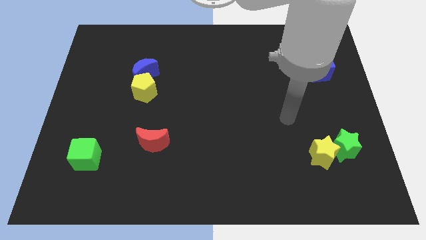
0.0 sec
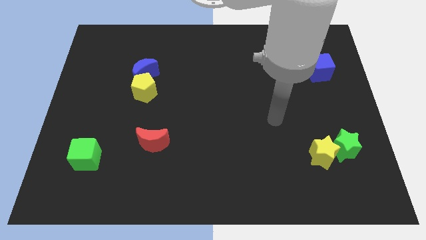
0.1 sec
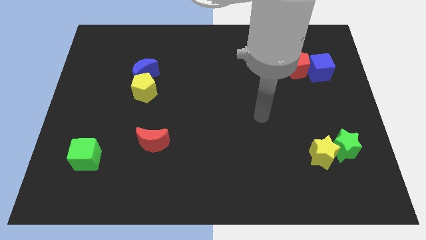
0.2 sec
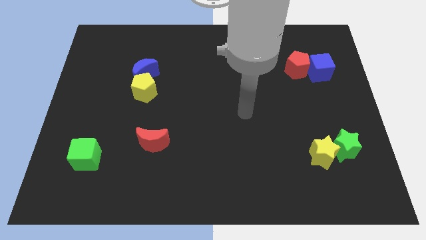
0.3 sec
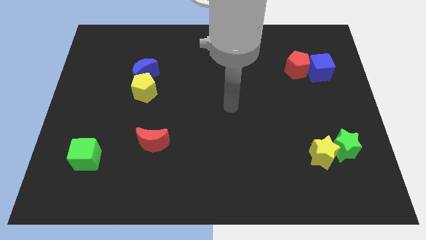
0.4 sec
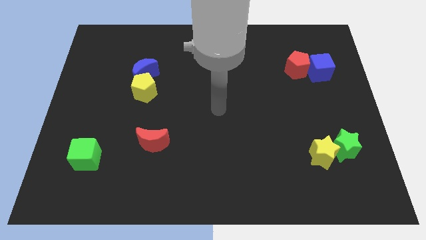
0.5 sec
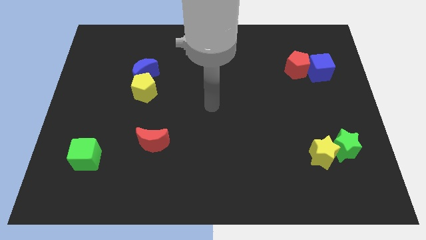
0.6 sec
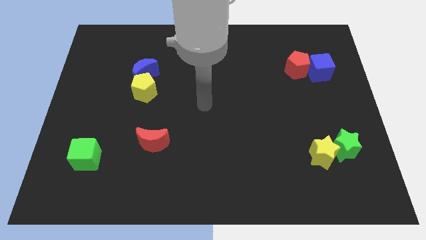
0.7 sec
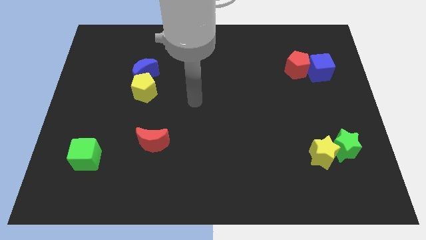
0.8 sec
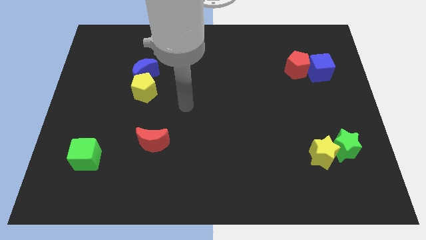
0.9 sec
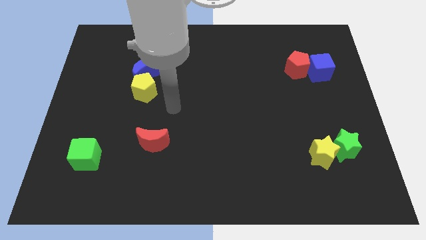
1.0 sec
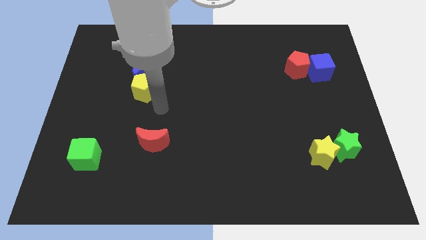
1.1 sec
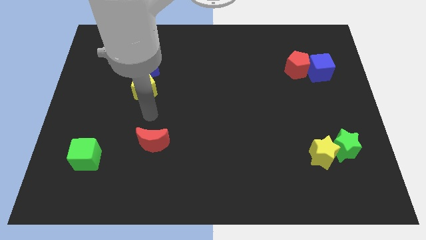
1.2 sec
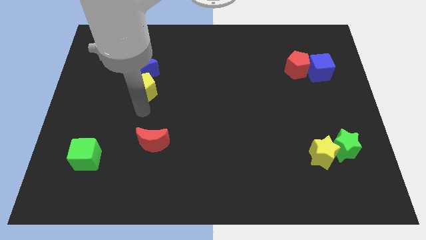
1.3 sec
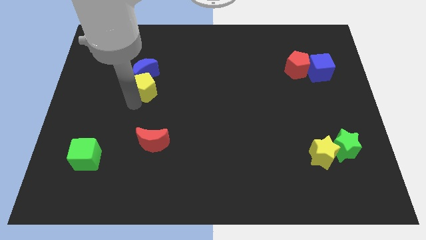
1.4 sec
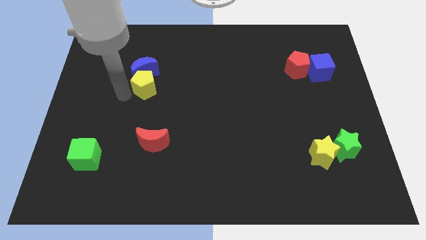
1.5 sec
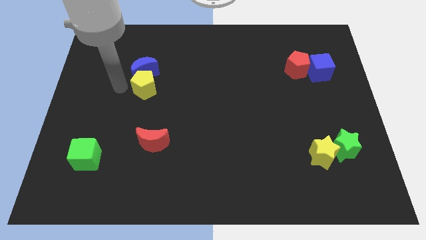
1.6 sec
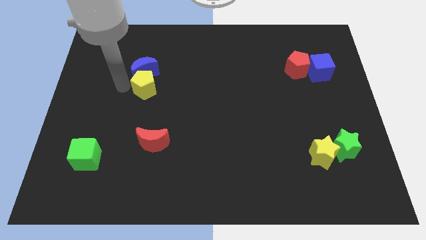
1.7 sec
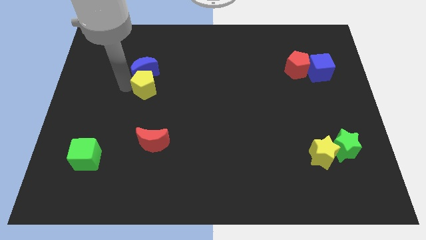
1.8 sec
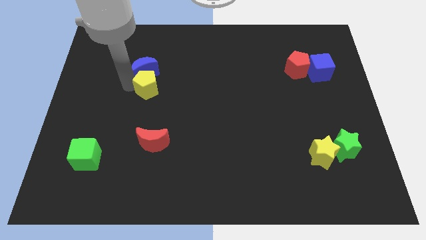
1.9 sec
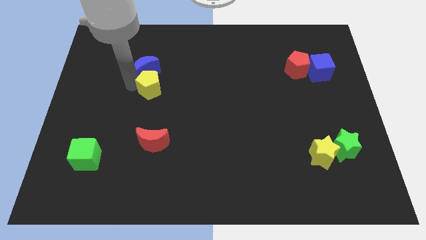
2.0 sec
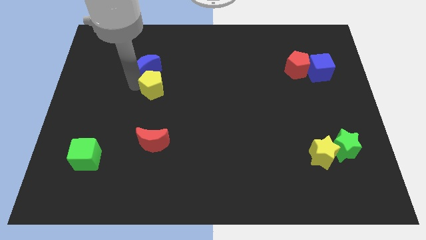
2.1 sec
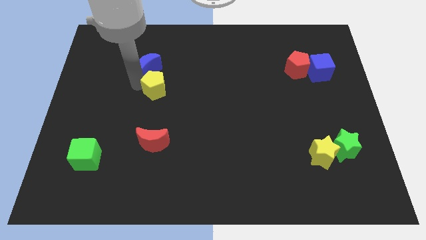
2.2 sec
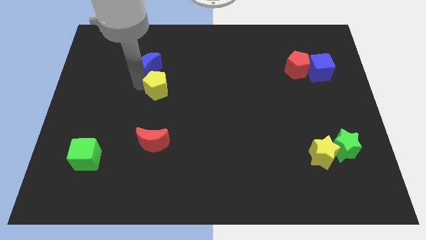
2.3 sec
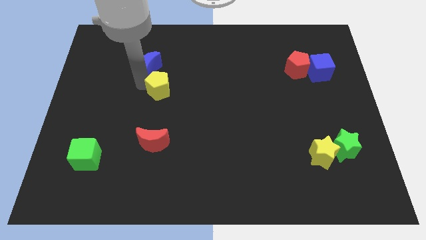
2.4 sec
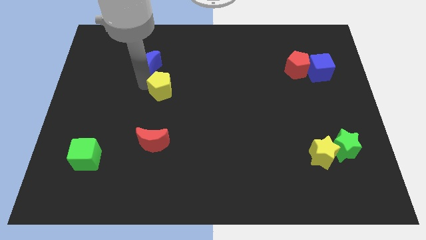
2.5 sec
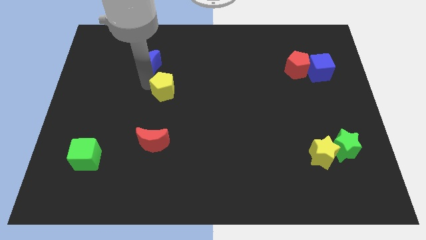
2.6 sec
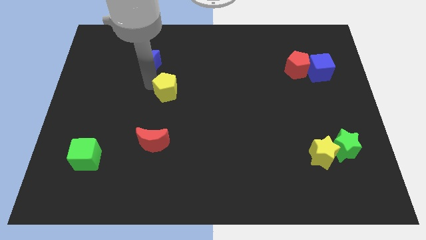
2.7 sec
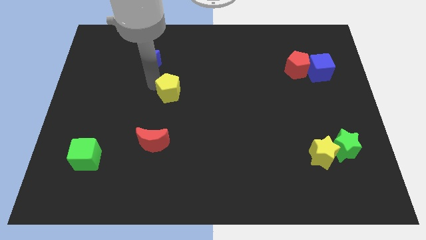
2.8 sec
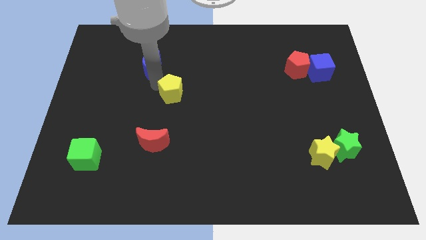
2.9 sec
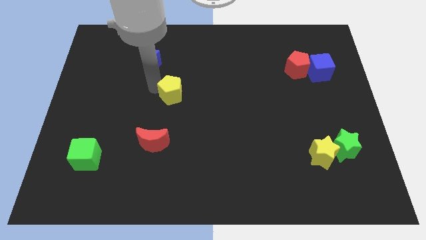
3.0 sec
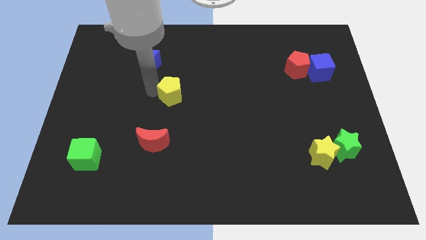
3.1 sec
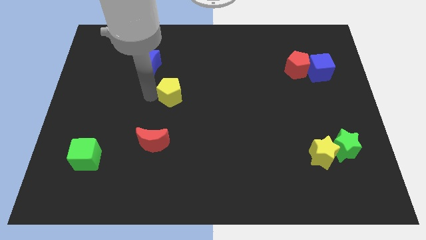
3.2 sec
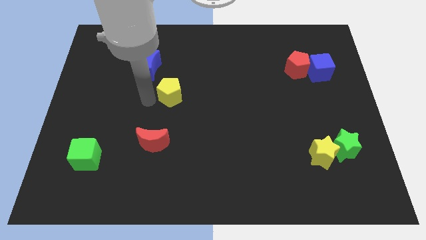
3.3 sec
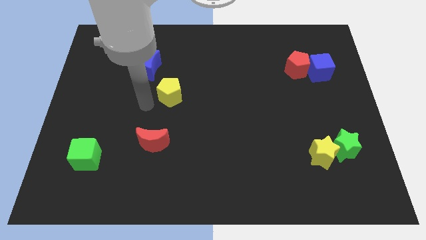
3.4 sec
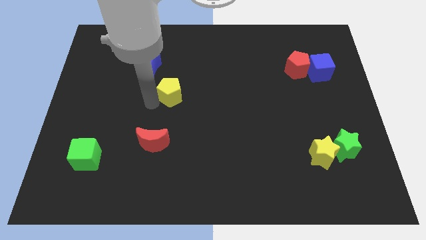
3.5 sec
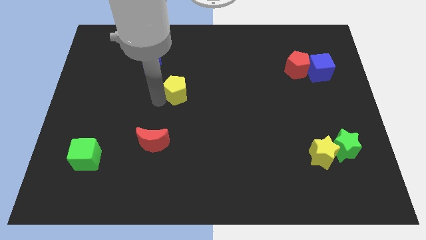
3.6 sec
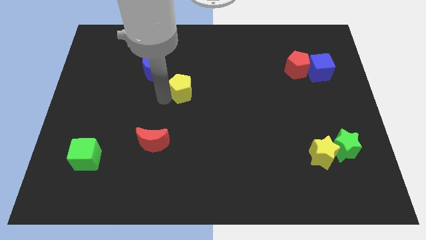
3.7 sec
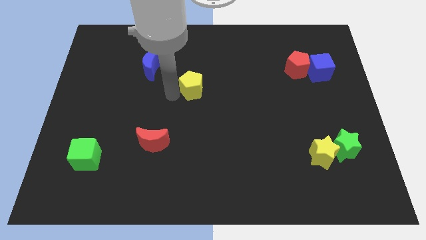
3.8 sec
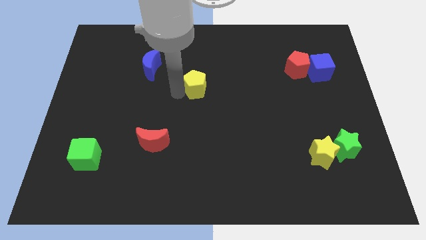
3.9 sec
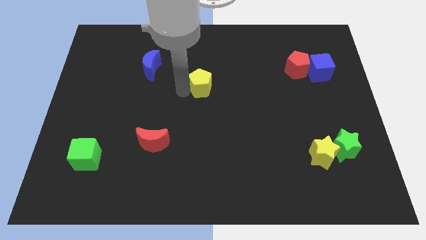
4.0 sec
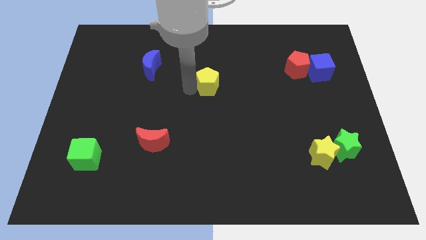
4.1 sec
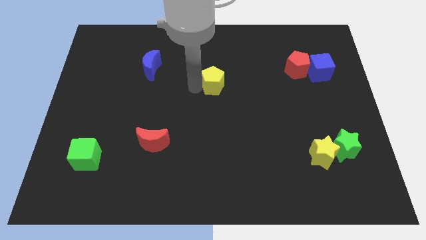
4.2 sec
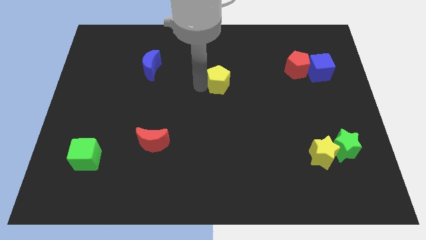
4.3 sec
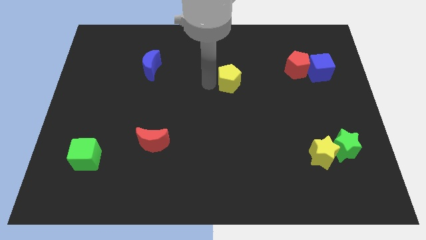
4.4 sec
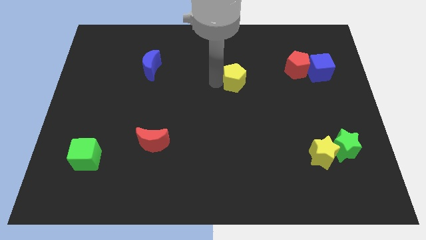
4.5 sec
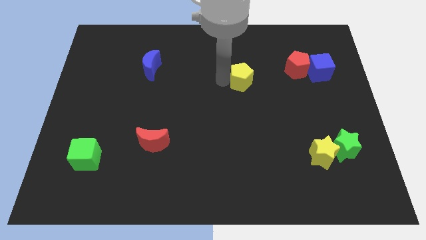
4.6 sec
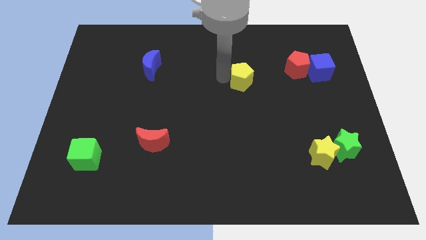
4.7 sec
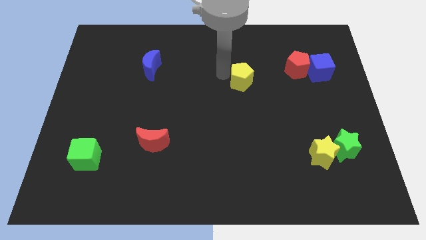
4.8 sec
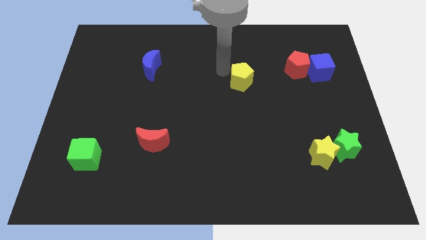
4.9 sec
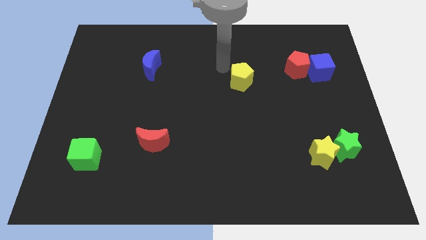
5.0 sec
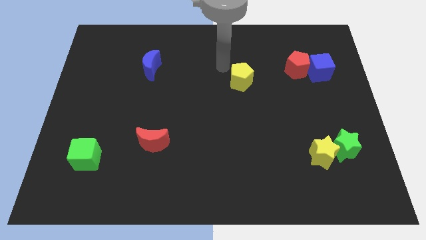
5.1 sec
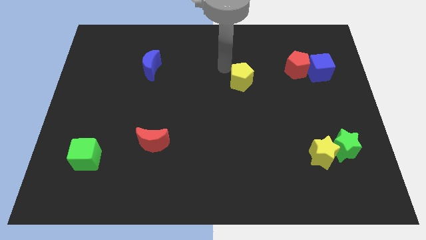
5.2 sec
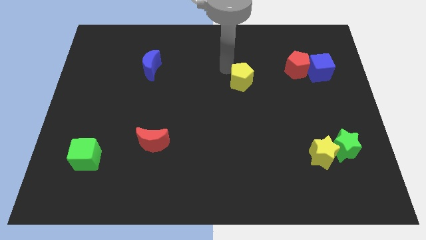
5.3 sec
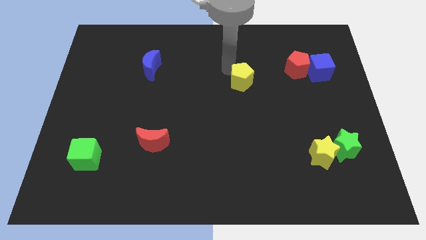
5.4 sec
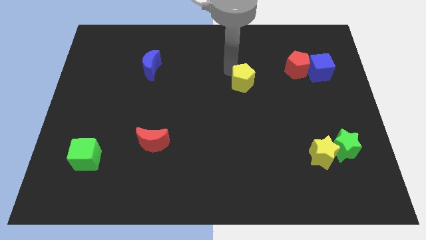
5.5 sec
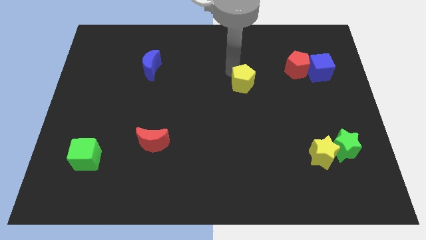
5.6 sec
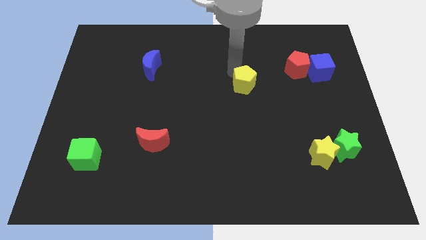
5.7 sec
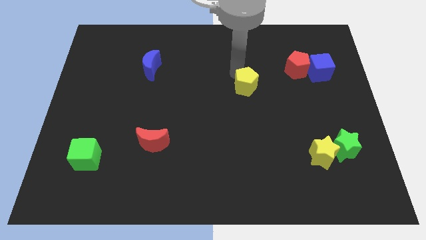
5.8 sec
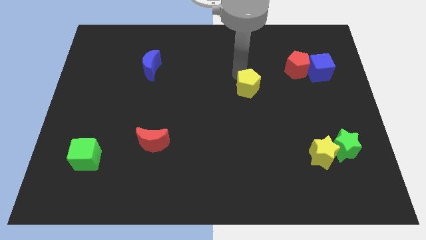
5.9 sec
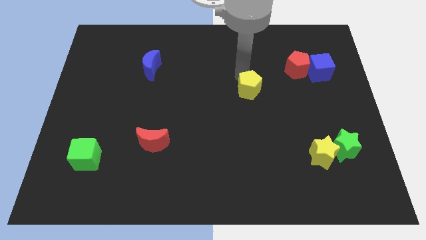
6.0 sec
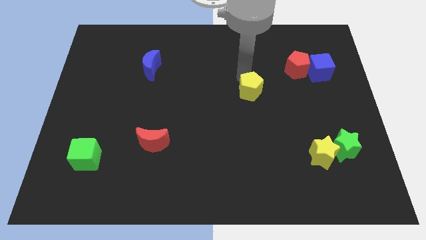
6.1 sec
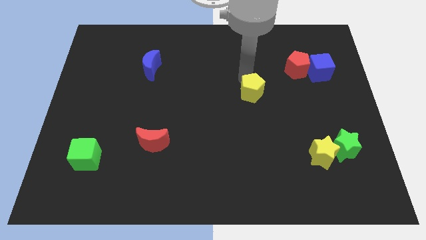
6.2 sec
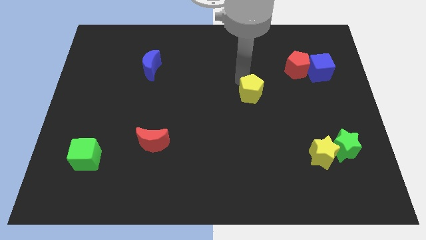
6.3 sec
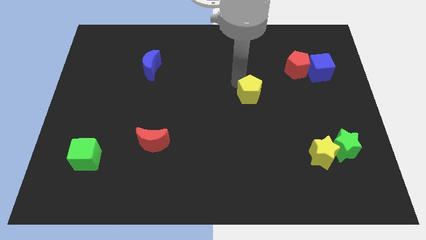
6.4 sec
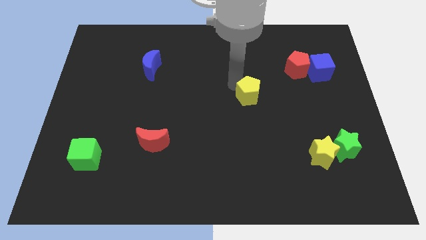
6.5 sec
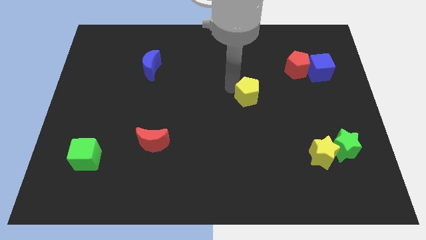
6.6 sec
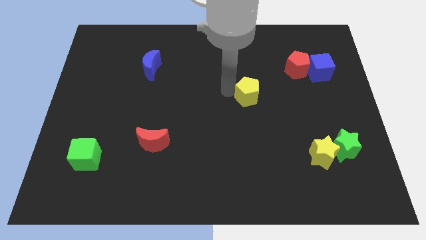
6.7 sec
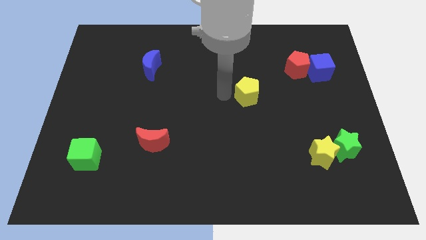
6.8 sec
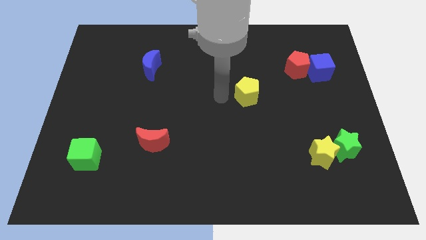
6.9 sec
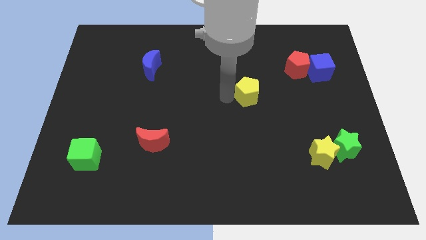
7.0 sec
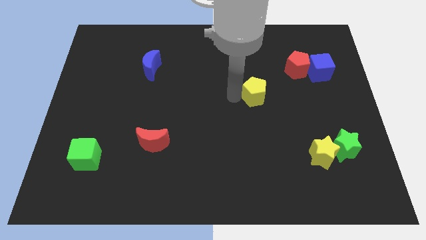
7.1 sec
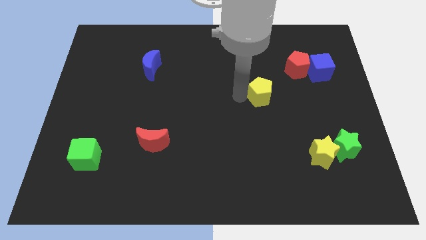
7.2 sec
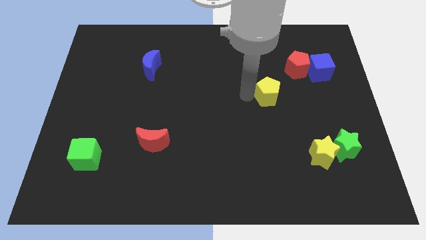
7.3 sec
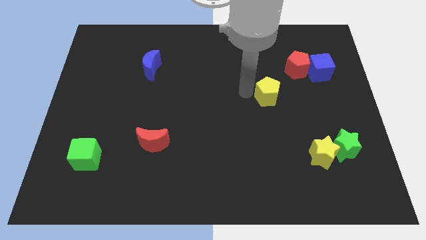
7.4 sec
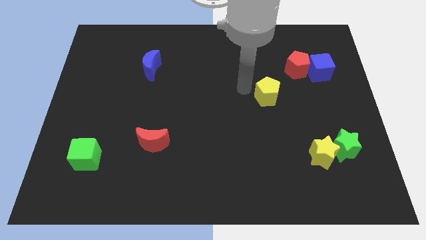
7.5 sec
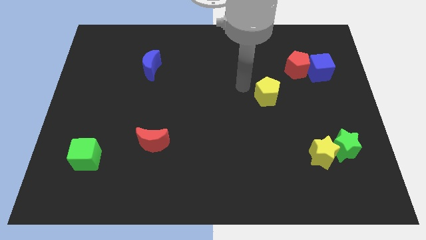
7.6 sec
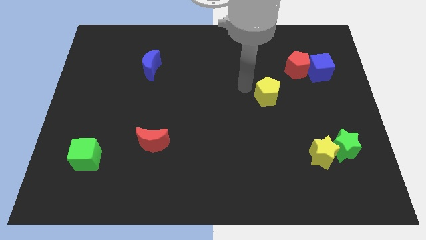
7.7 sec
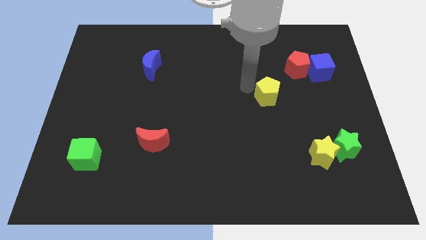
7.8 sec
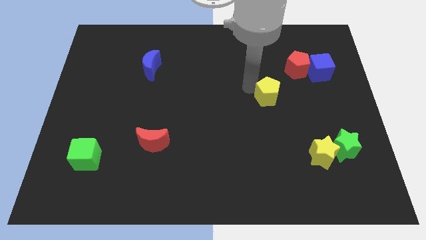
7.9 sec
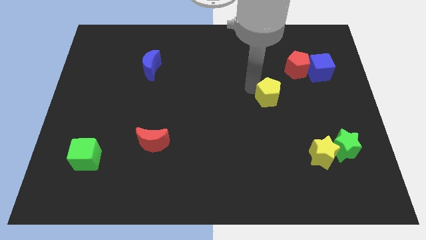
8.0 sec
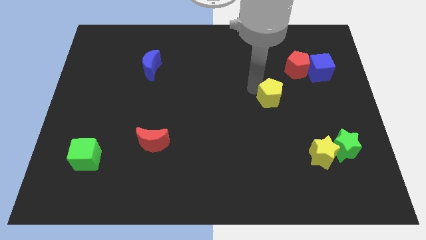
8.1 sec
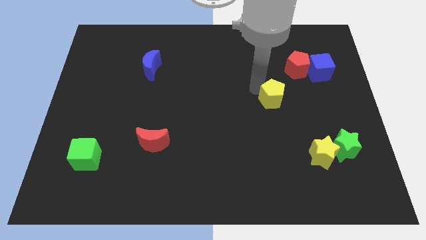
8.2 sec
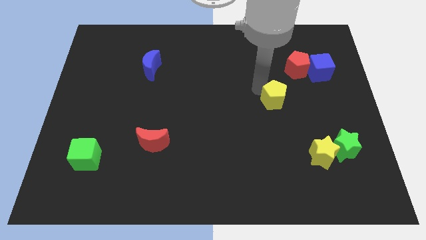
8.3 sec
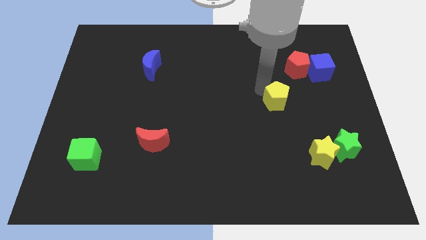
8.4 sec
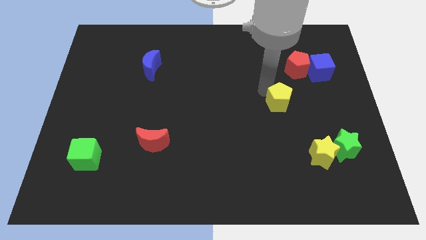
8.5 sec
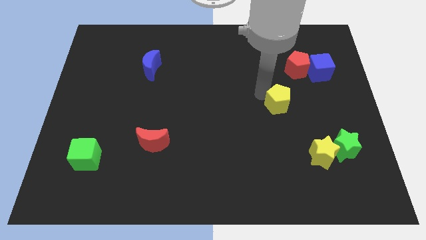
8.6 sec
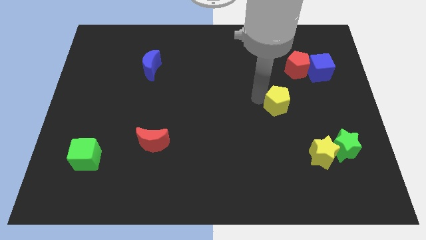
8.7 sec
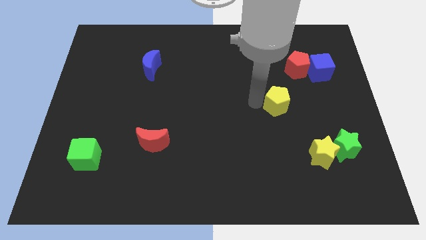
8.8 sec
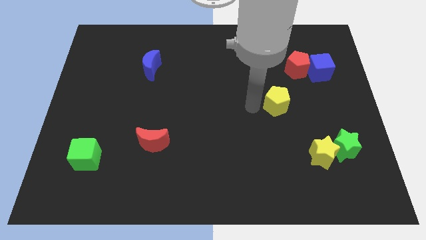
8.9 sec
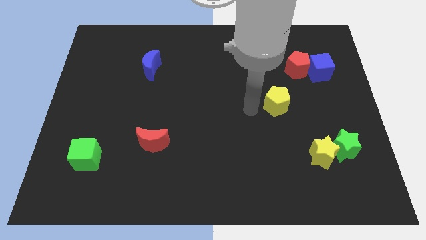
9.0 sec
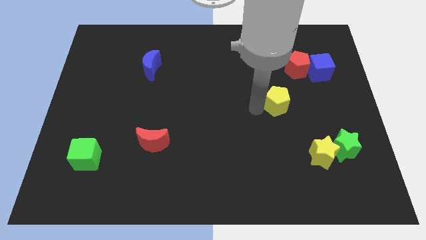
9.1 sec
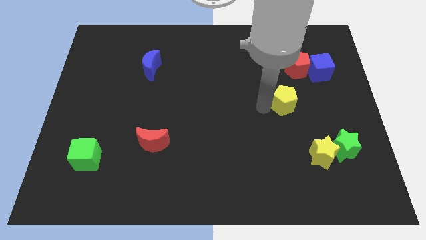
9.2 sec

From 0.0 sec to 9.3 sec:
put the yellow pentagon to the bottom of the red pentagon
